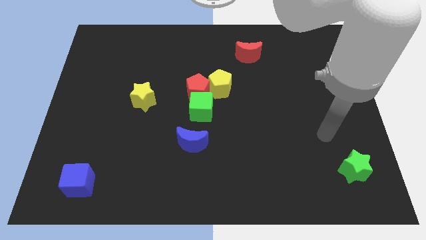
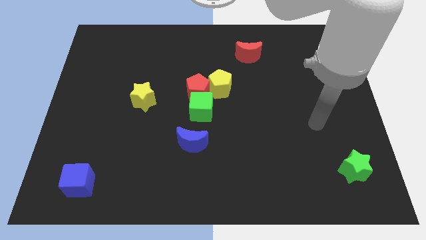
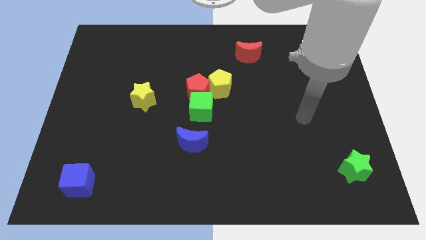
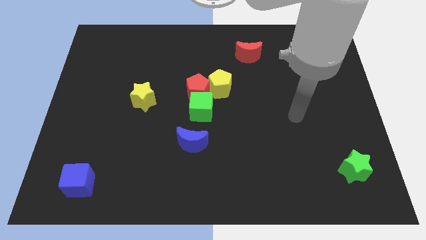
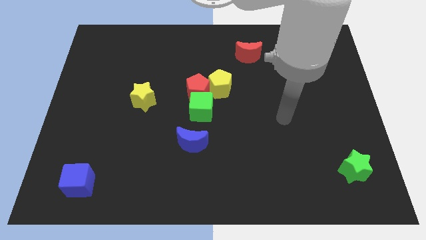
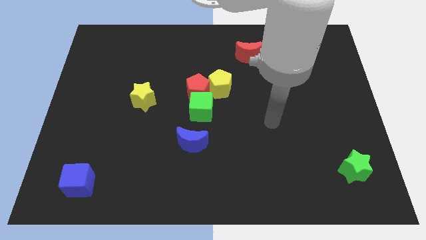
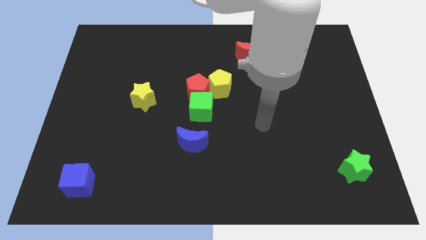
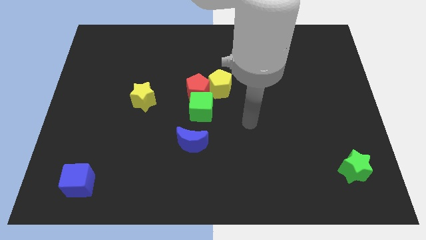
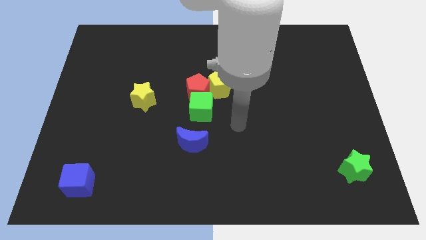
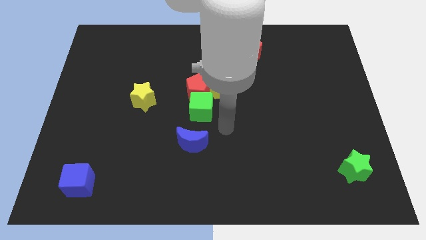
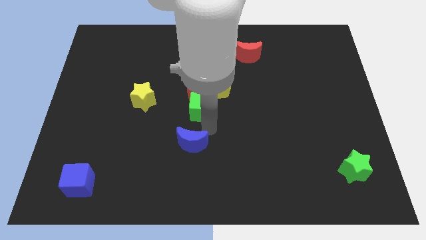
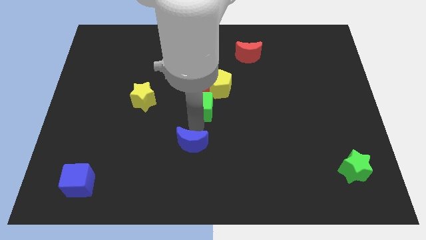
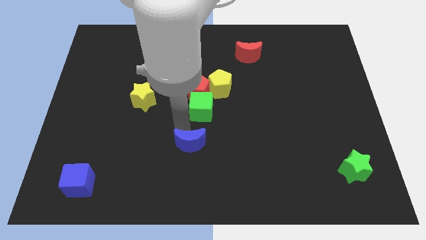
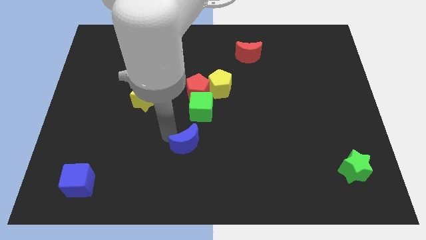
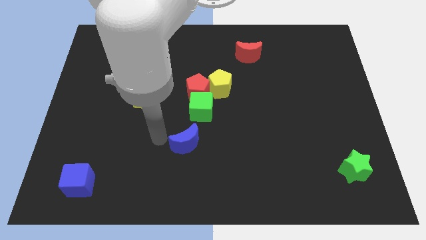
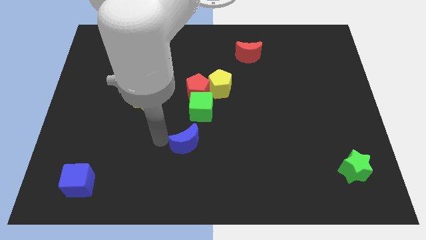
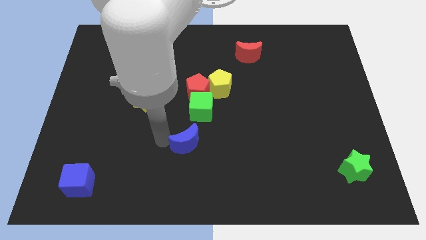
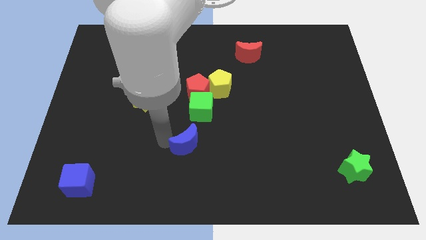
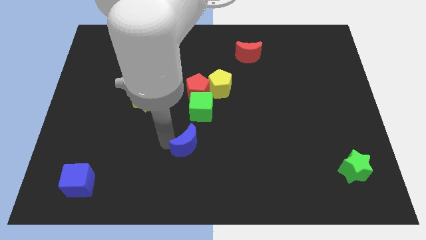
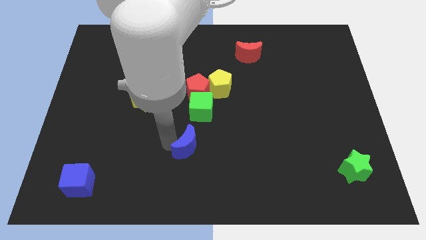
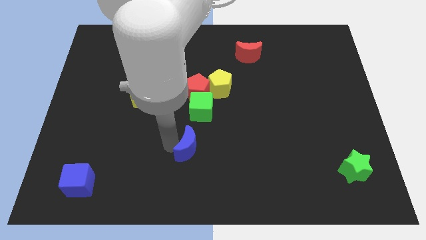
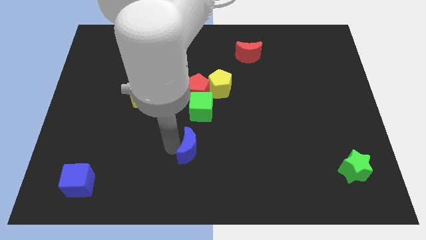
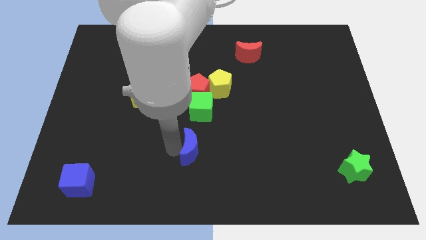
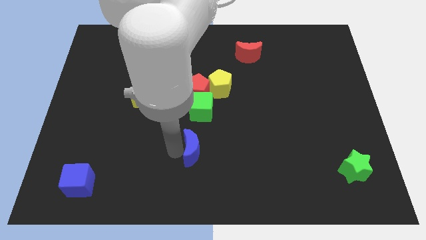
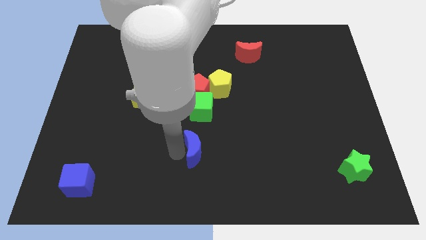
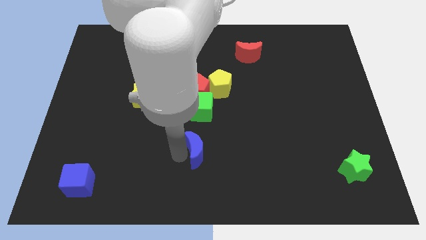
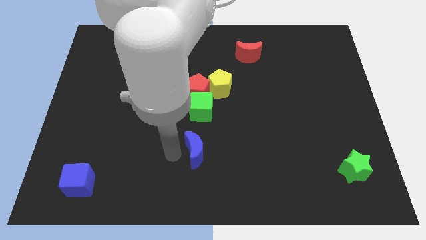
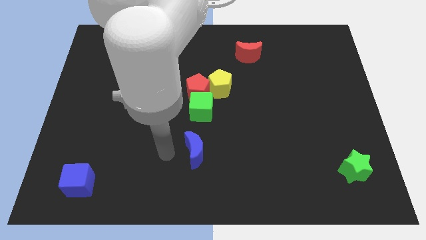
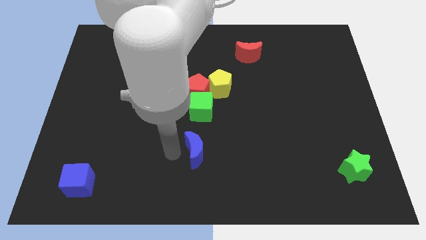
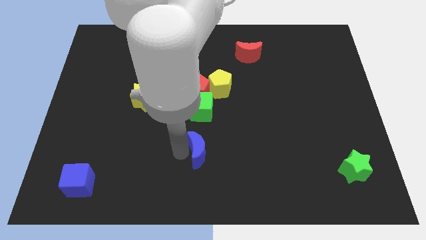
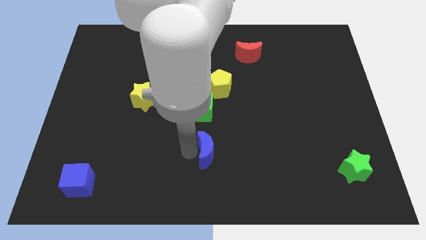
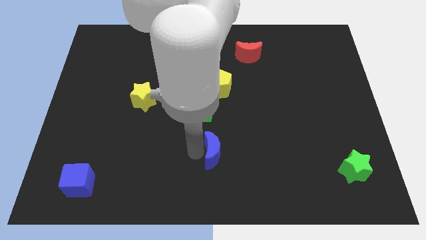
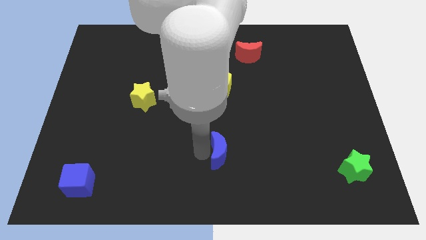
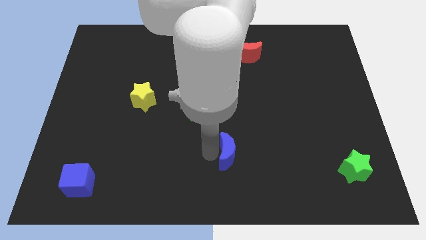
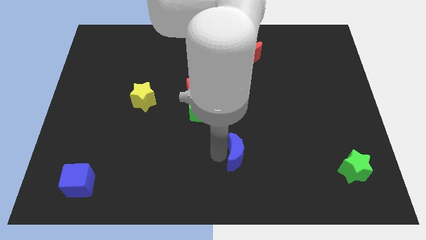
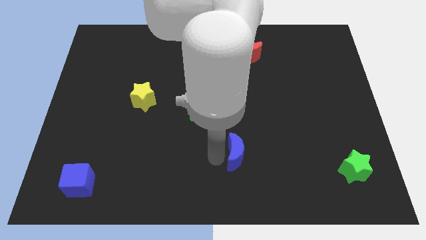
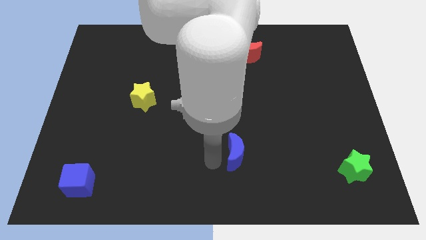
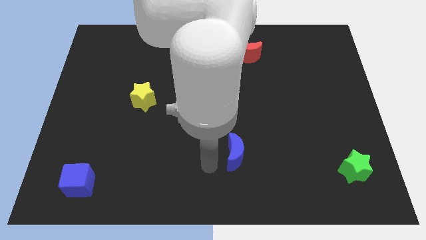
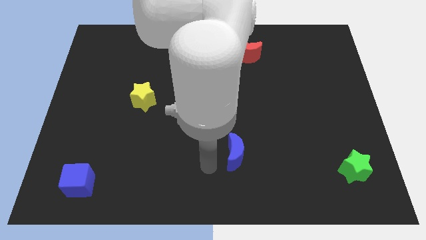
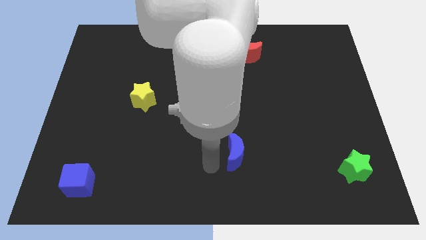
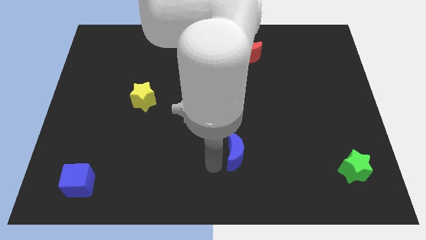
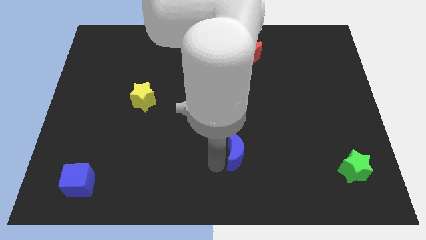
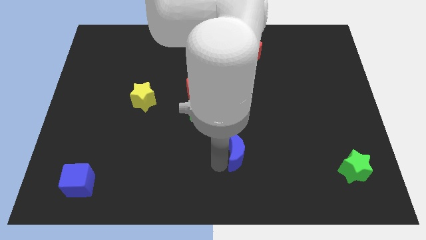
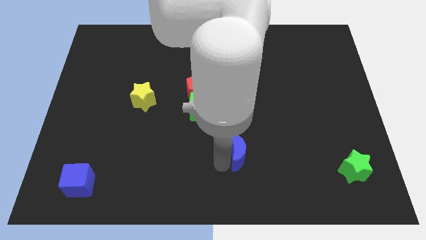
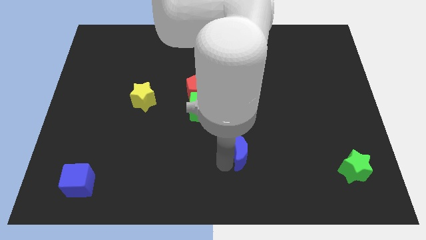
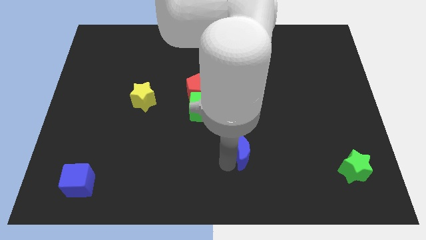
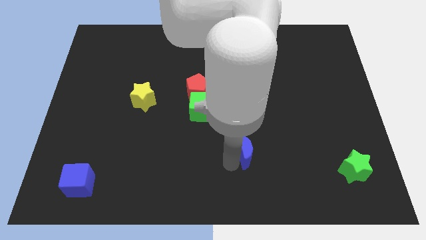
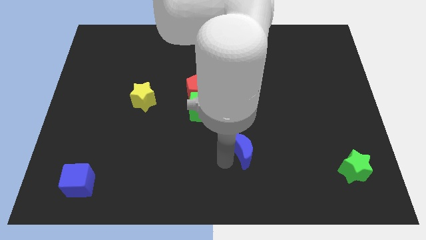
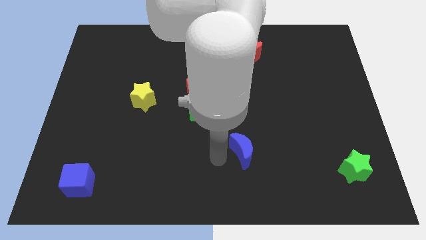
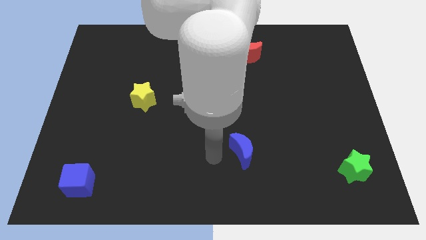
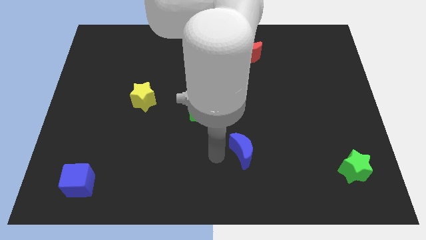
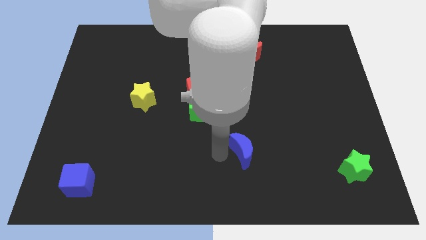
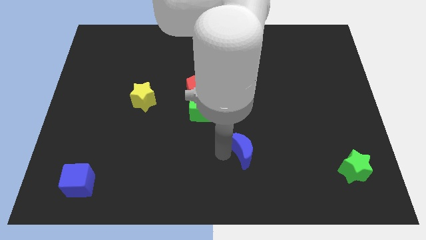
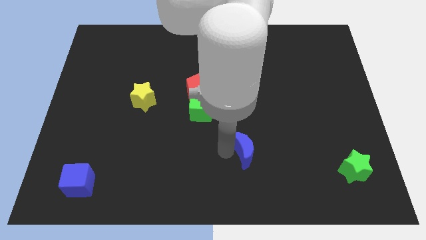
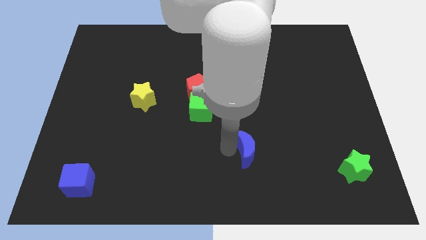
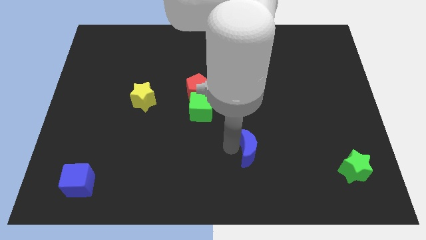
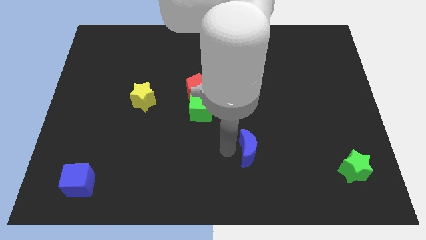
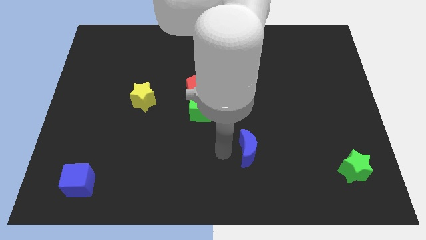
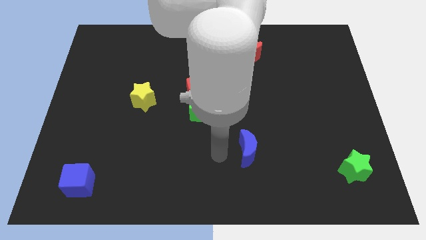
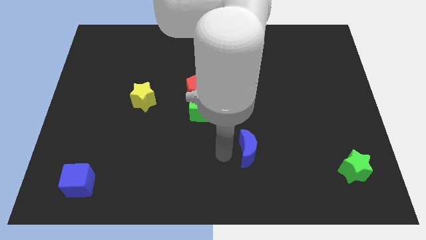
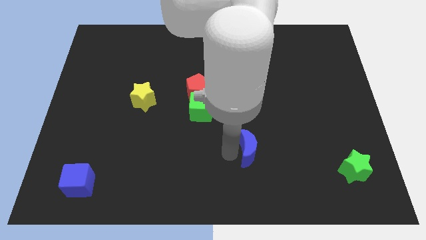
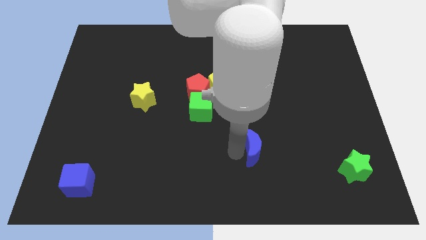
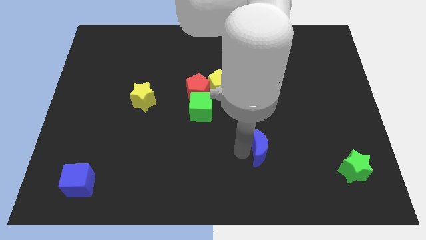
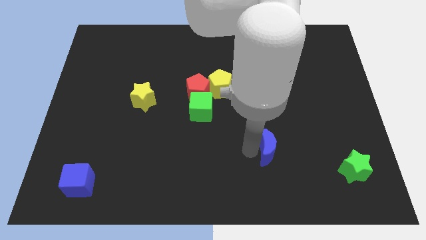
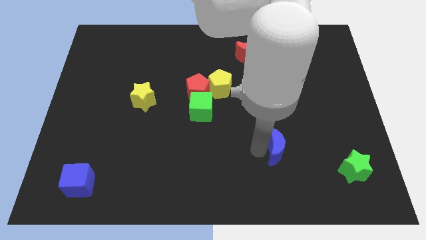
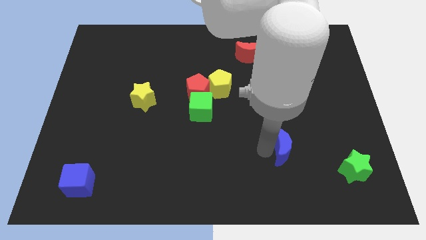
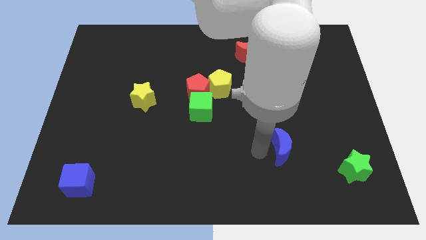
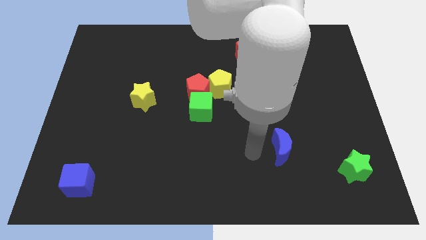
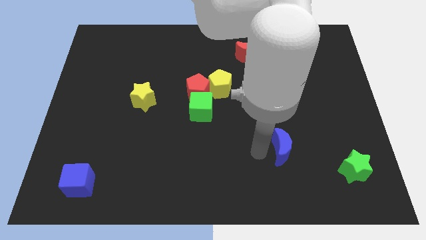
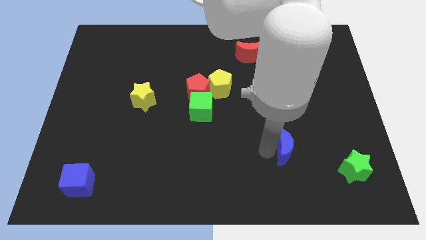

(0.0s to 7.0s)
push the blue moon right

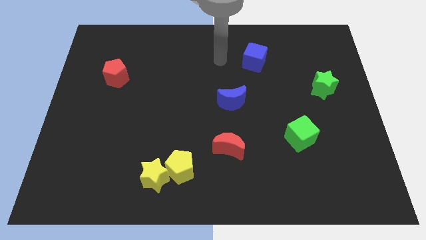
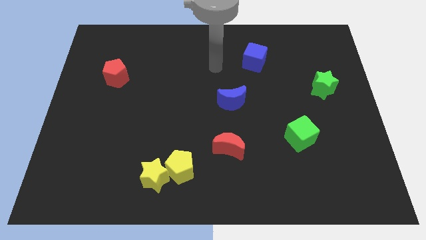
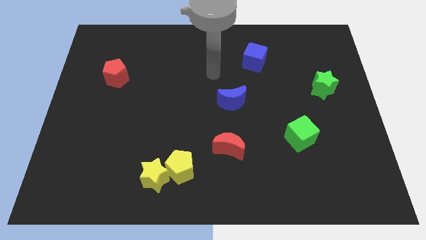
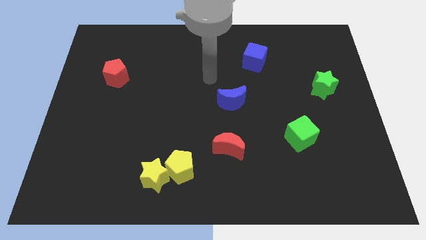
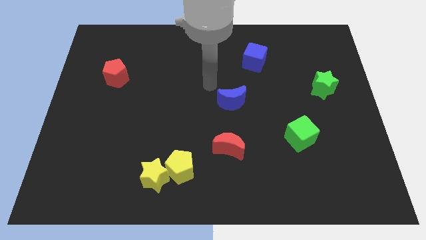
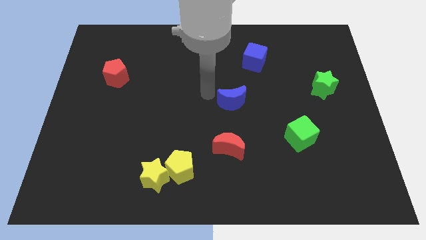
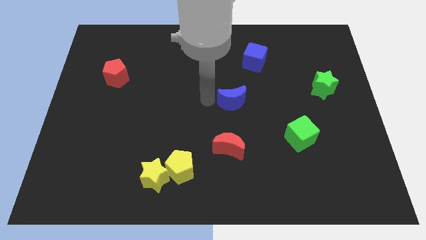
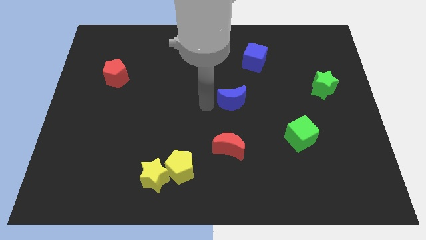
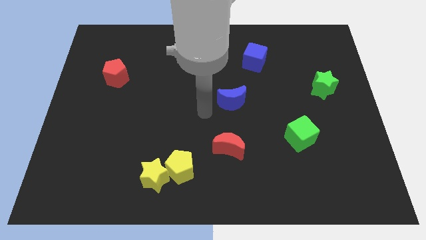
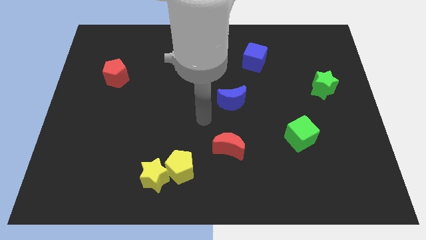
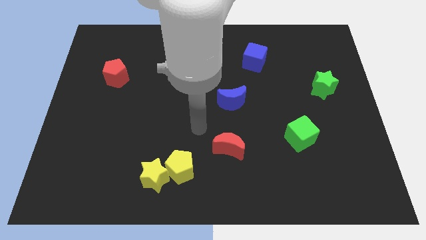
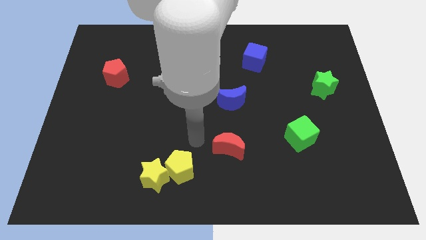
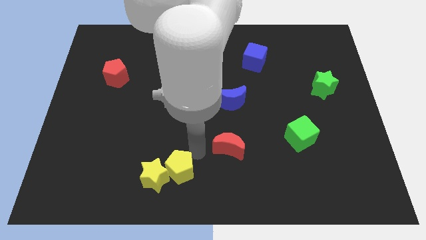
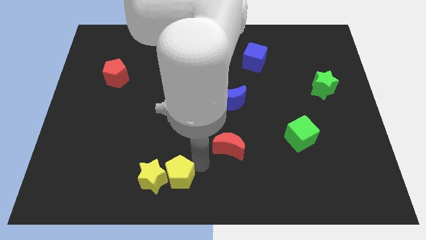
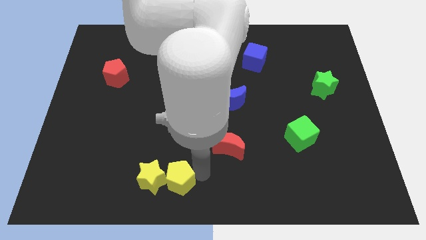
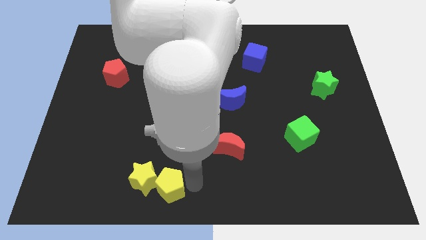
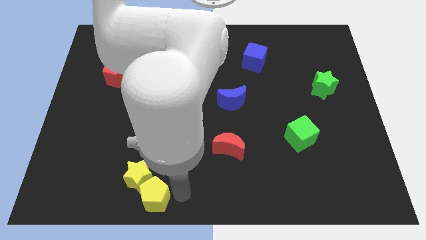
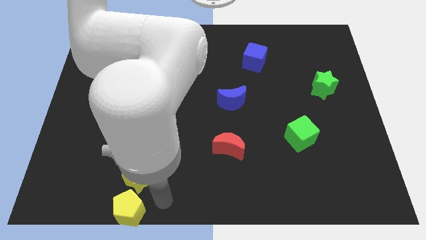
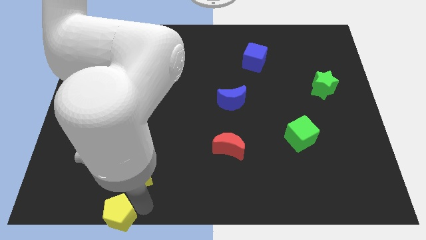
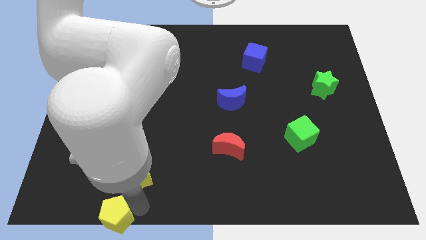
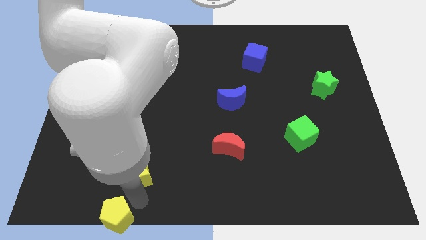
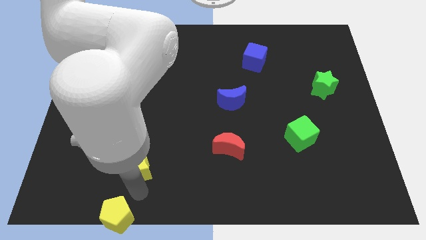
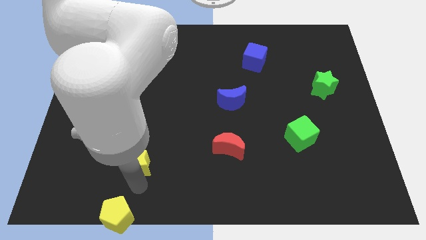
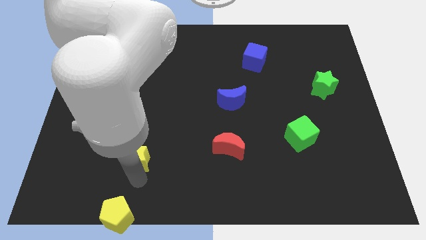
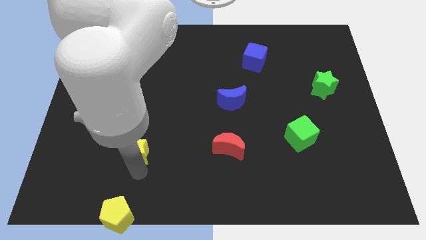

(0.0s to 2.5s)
slightly move the yellow star upwards and left diagonally
